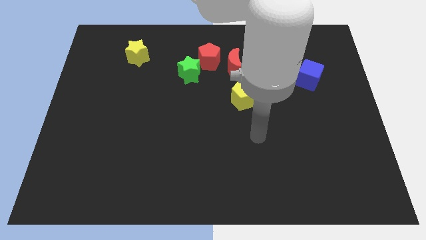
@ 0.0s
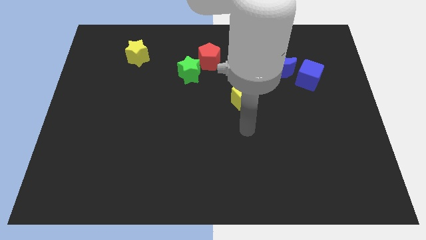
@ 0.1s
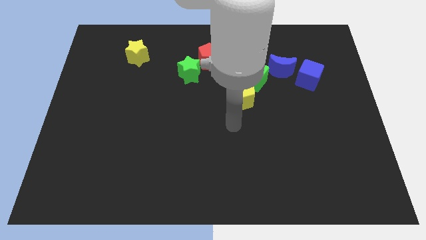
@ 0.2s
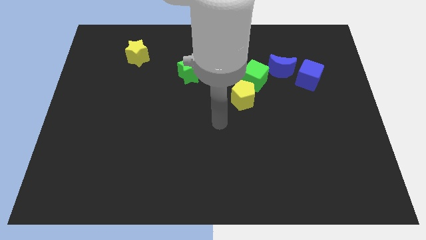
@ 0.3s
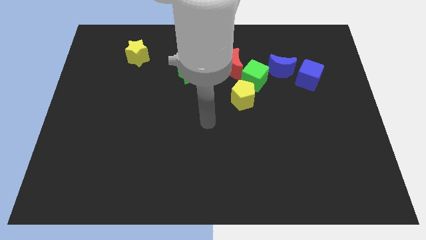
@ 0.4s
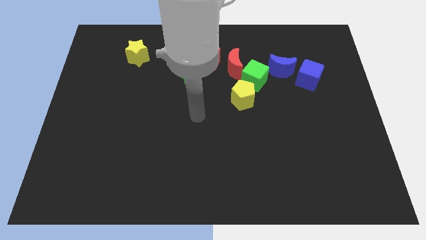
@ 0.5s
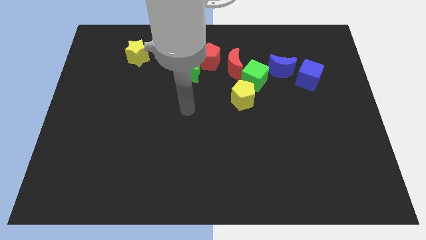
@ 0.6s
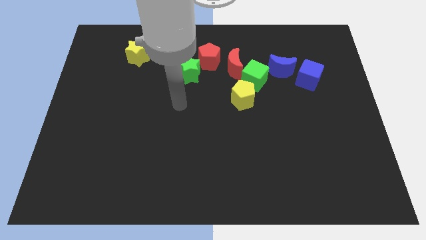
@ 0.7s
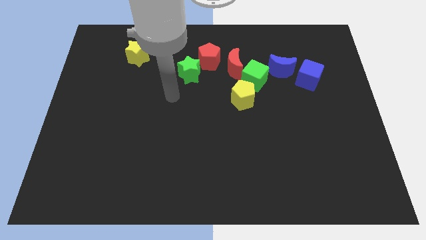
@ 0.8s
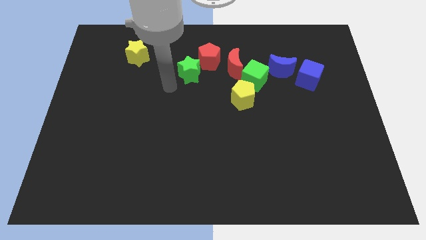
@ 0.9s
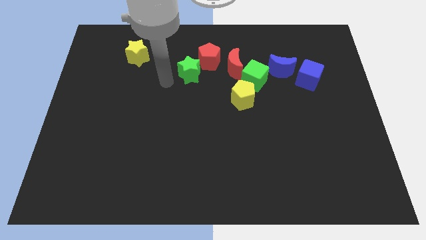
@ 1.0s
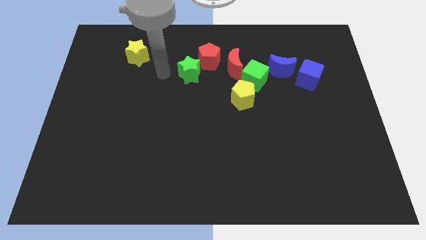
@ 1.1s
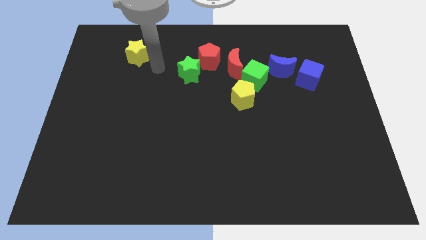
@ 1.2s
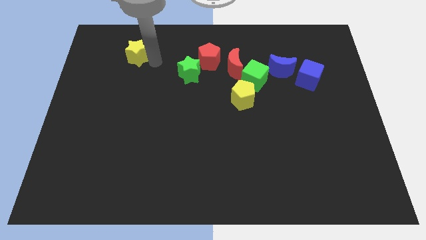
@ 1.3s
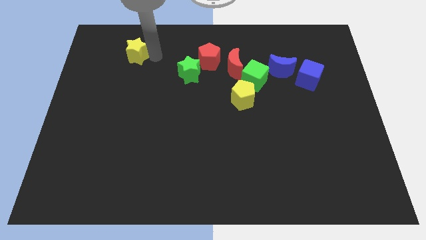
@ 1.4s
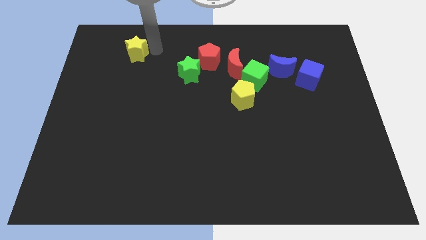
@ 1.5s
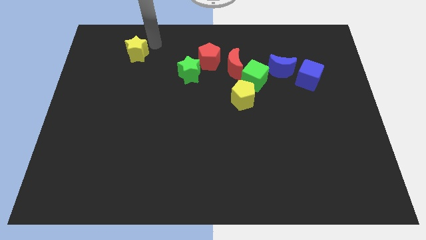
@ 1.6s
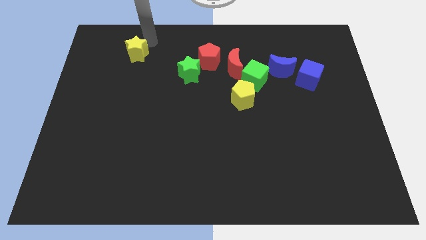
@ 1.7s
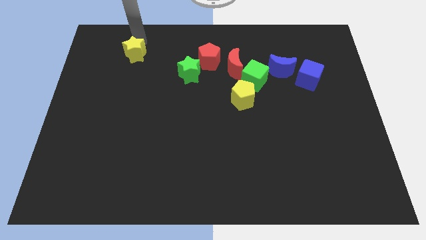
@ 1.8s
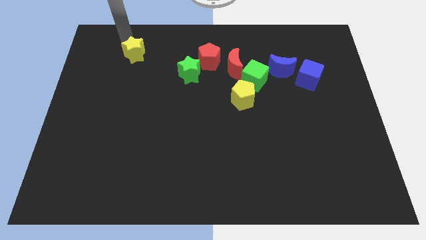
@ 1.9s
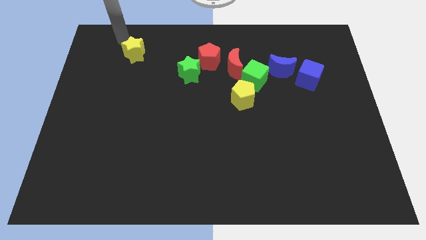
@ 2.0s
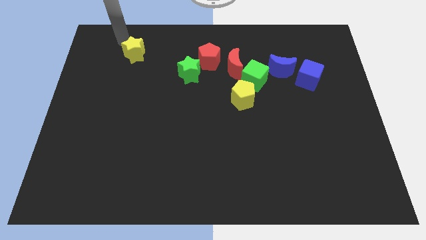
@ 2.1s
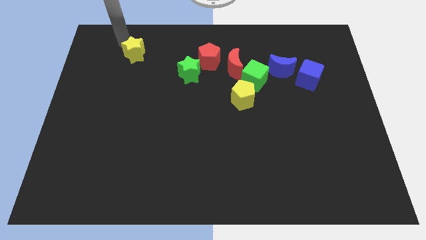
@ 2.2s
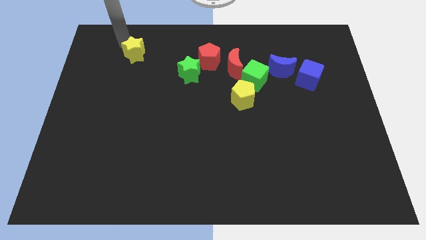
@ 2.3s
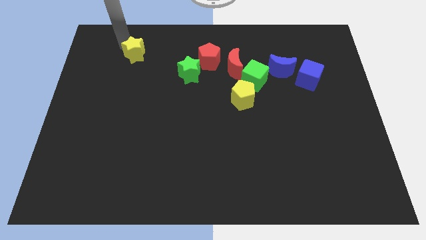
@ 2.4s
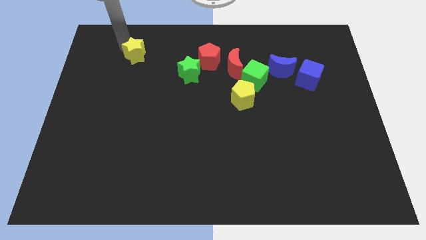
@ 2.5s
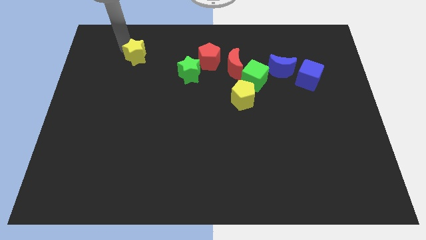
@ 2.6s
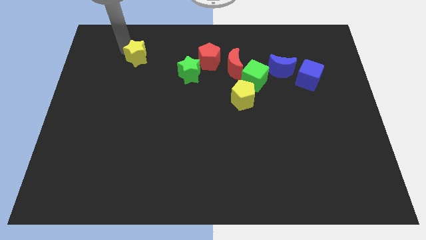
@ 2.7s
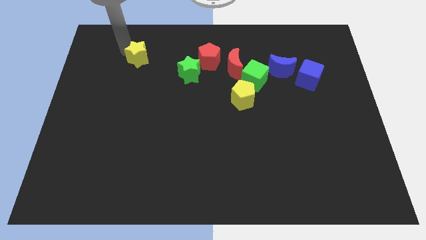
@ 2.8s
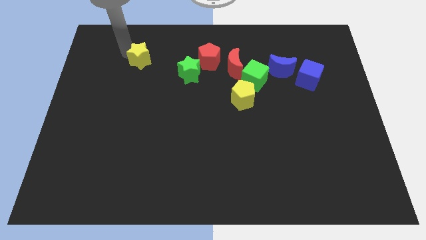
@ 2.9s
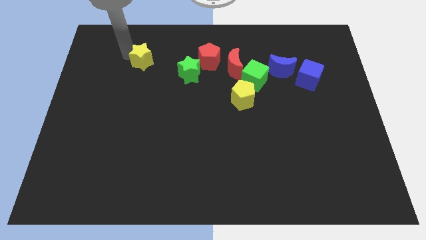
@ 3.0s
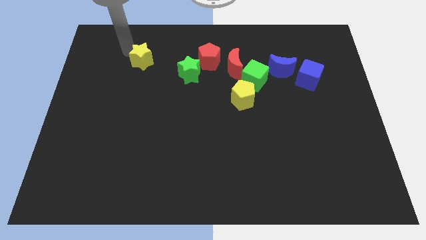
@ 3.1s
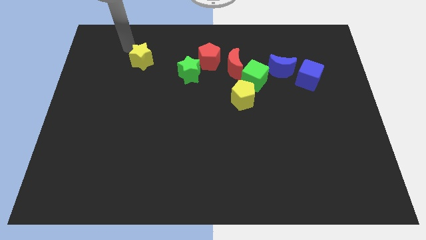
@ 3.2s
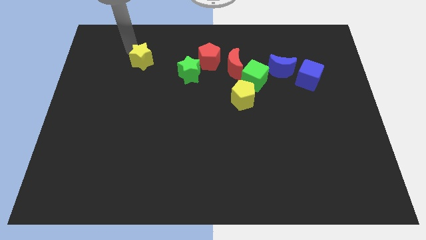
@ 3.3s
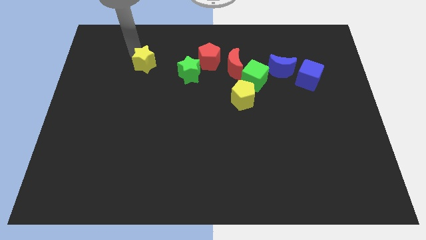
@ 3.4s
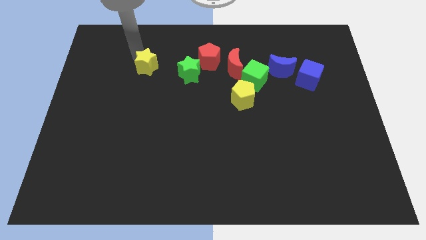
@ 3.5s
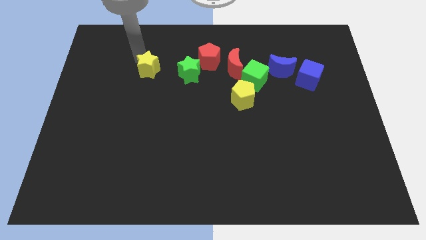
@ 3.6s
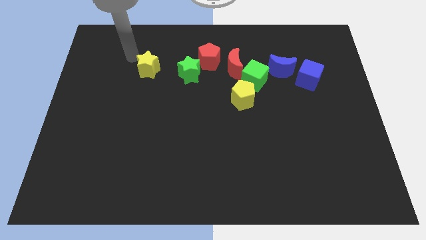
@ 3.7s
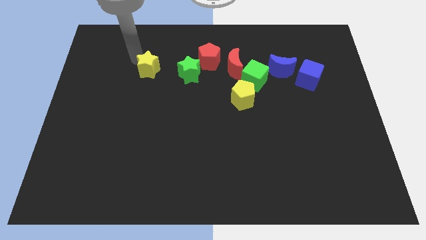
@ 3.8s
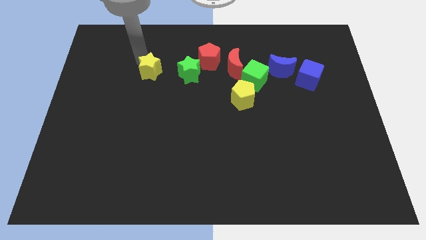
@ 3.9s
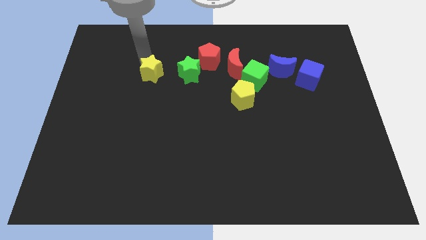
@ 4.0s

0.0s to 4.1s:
move the yellow star a little diagonally downwards and to the right

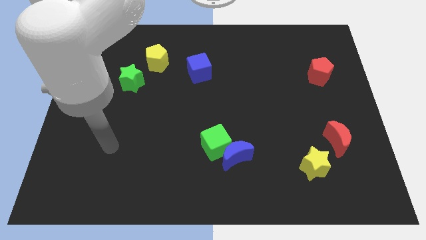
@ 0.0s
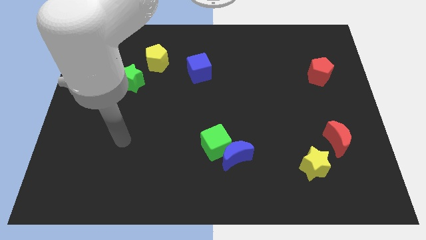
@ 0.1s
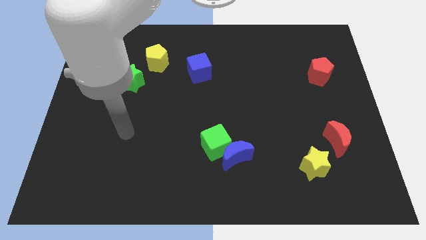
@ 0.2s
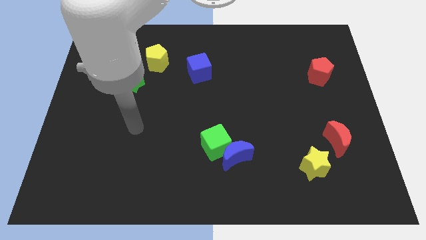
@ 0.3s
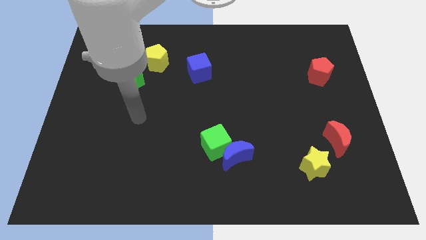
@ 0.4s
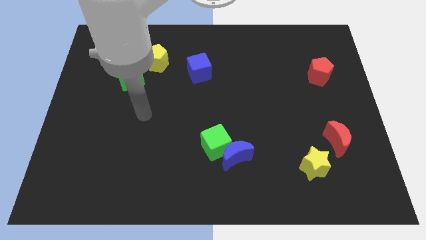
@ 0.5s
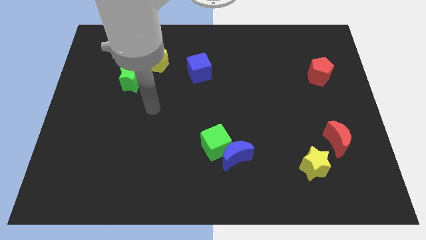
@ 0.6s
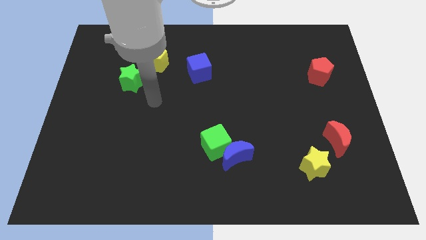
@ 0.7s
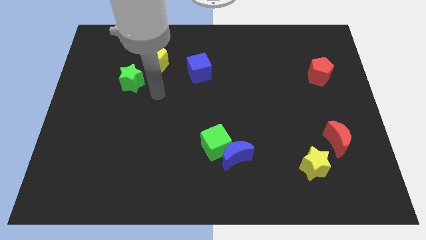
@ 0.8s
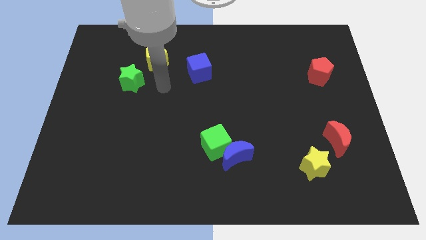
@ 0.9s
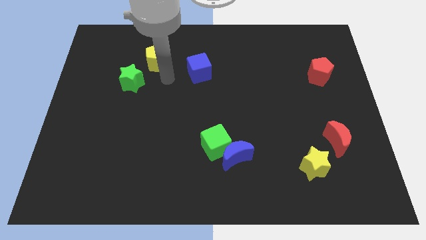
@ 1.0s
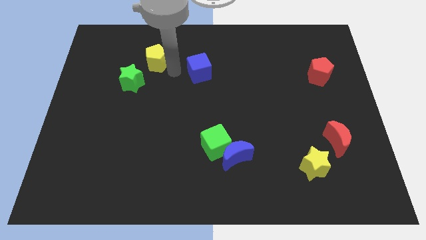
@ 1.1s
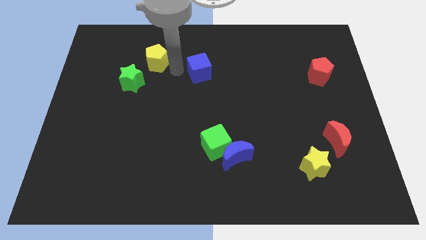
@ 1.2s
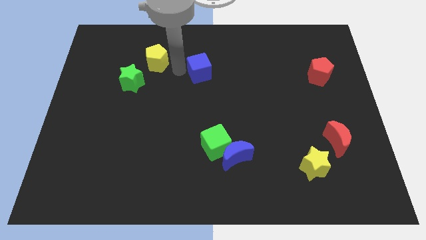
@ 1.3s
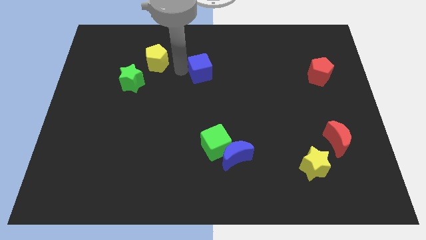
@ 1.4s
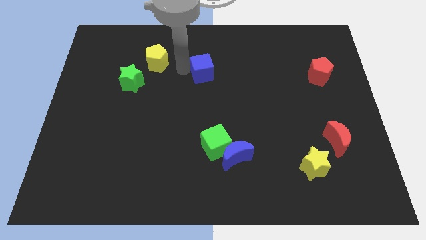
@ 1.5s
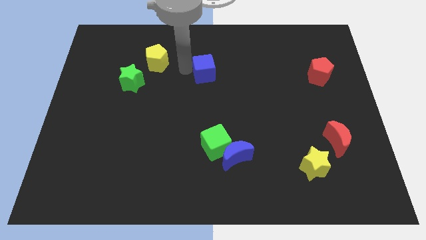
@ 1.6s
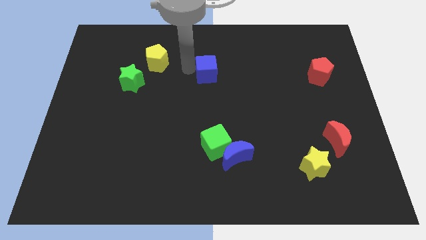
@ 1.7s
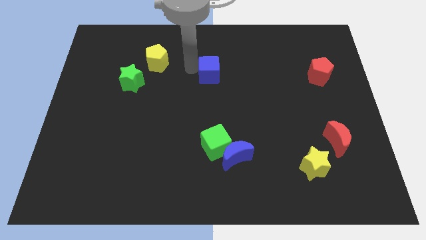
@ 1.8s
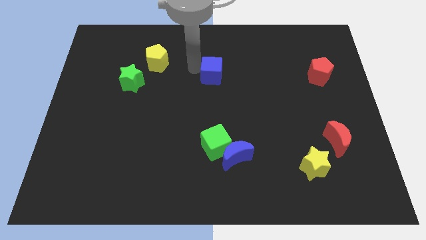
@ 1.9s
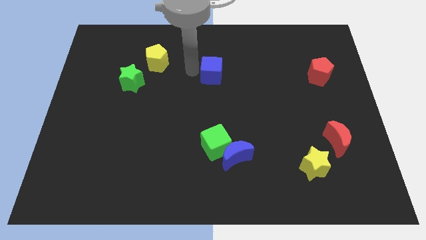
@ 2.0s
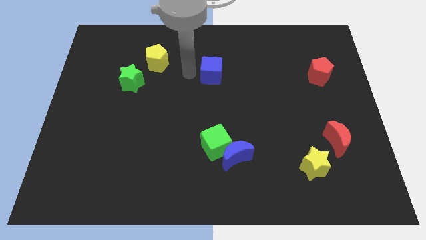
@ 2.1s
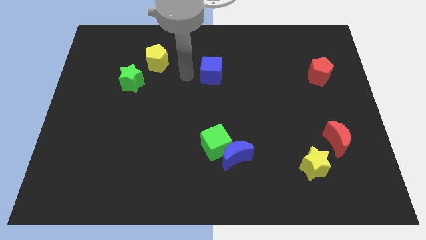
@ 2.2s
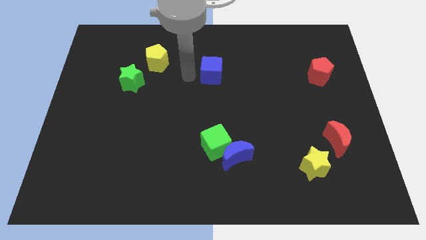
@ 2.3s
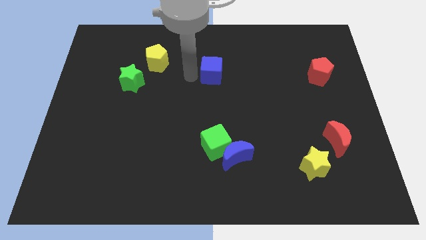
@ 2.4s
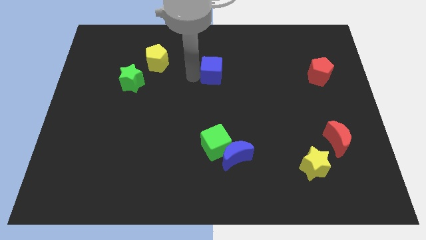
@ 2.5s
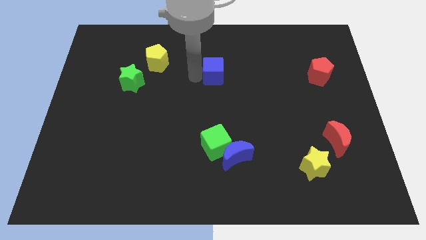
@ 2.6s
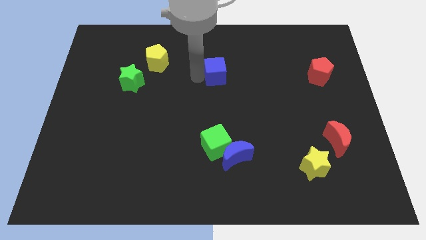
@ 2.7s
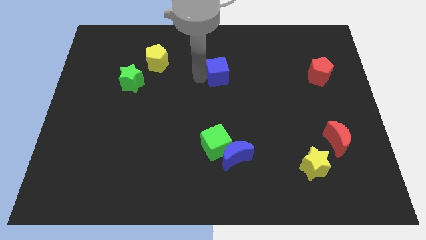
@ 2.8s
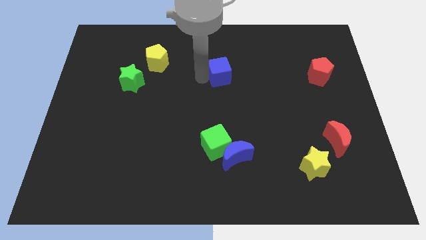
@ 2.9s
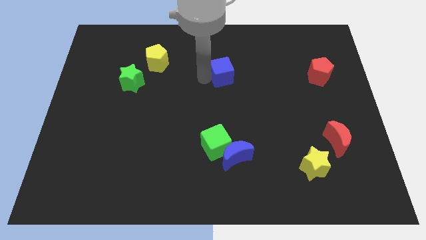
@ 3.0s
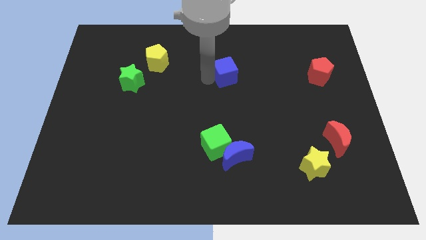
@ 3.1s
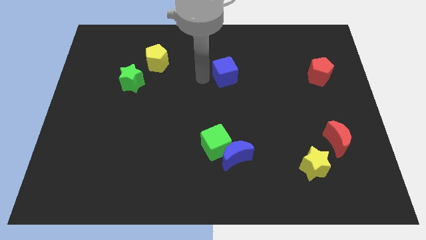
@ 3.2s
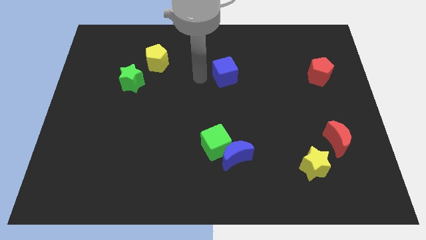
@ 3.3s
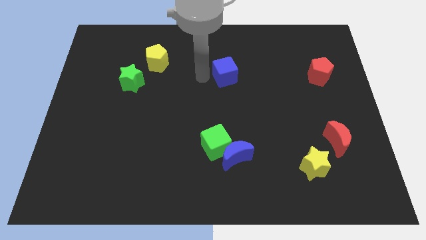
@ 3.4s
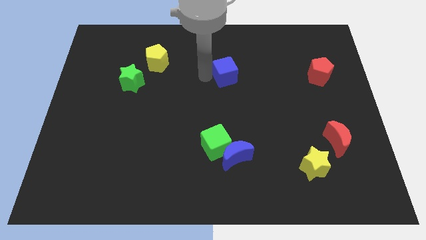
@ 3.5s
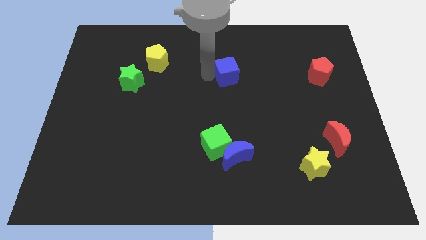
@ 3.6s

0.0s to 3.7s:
push the blue cube a little bit to the right

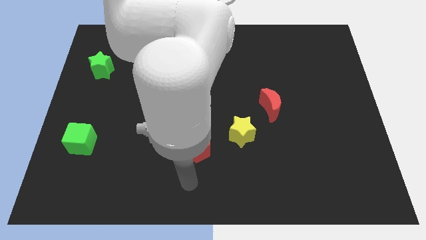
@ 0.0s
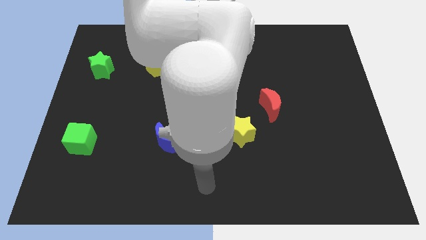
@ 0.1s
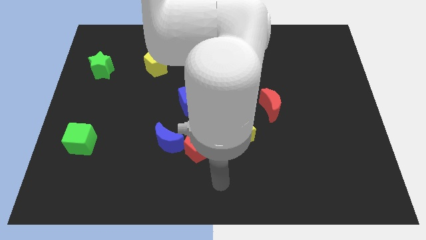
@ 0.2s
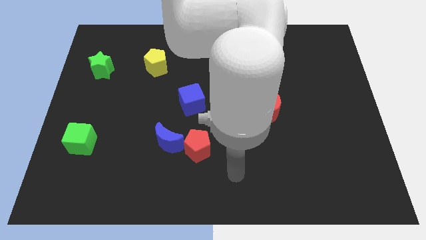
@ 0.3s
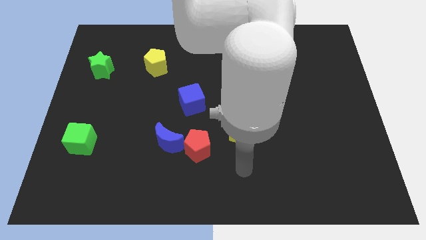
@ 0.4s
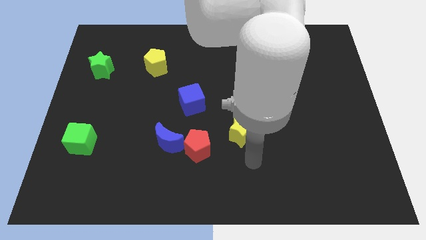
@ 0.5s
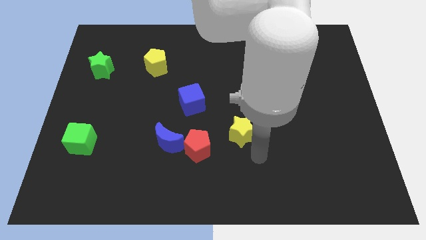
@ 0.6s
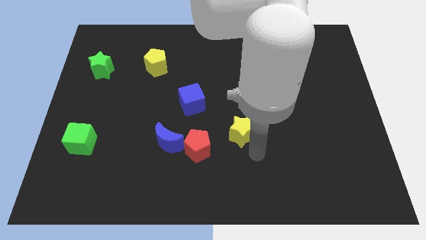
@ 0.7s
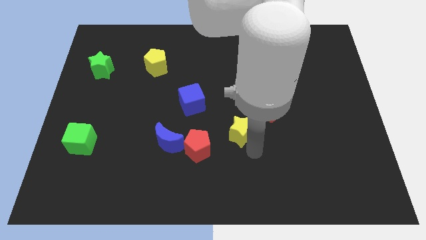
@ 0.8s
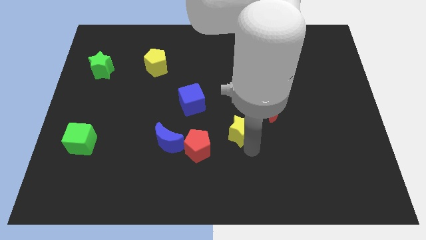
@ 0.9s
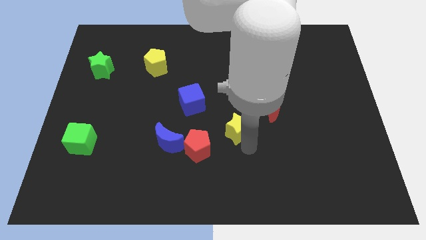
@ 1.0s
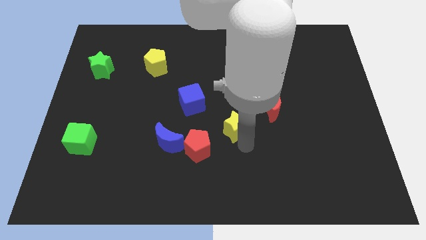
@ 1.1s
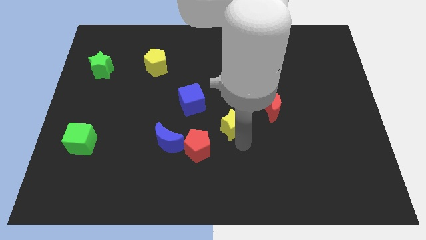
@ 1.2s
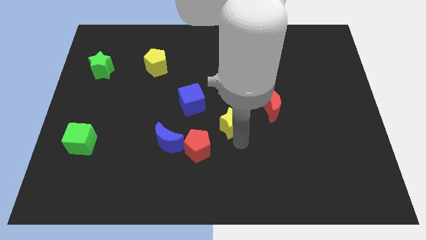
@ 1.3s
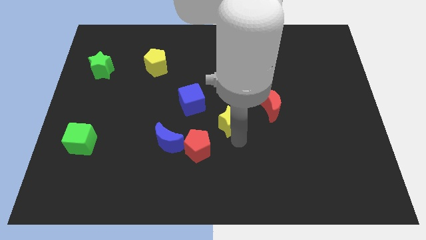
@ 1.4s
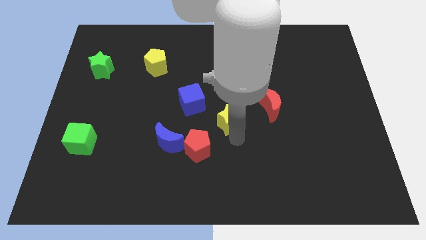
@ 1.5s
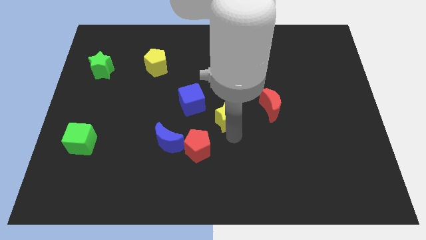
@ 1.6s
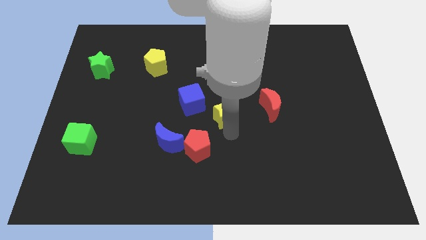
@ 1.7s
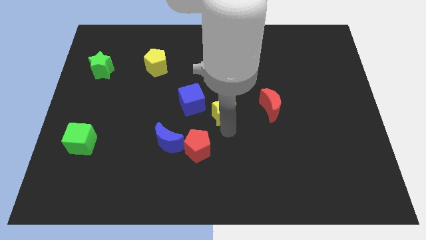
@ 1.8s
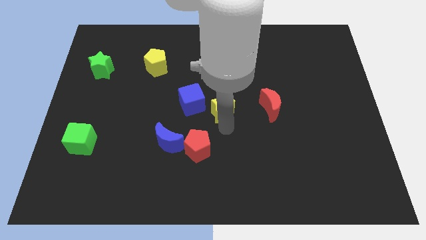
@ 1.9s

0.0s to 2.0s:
move the yellow star slightly up and left diagonally
